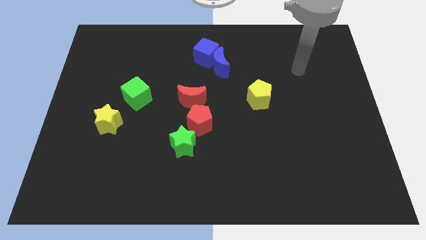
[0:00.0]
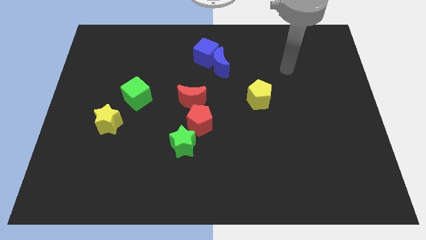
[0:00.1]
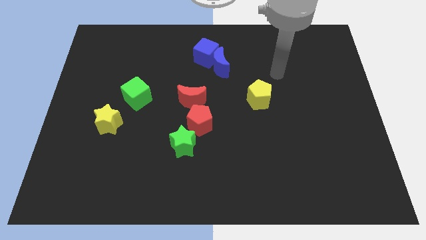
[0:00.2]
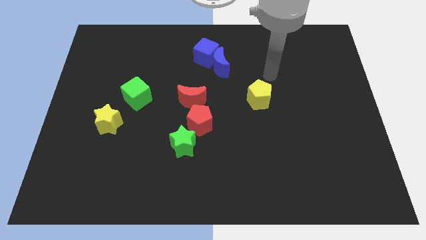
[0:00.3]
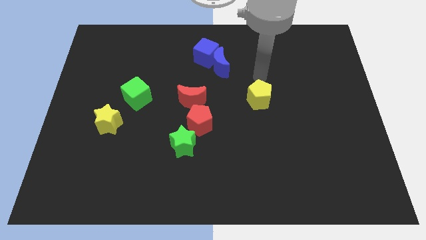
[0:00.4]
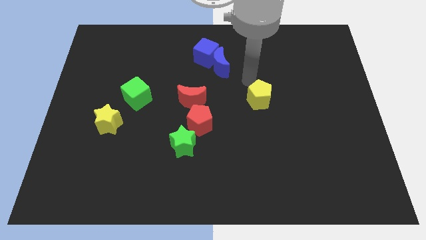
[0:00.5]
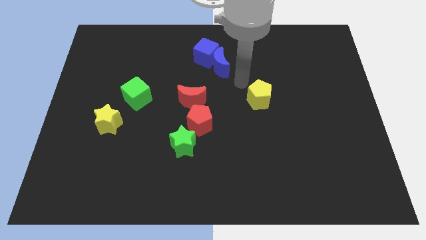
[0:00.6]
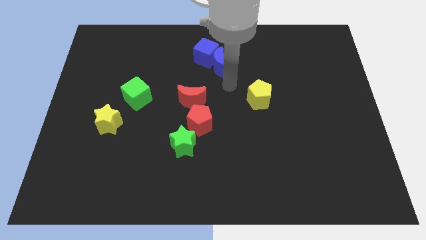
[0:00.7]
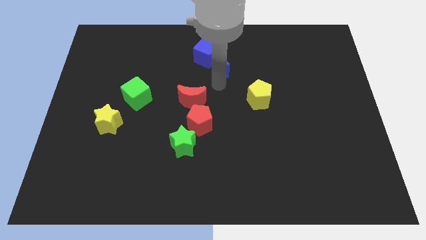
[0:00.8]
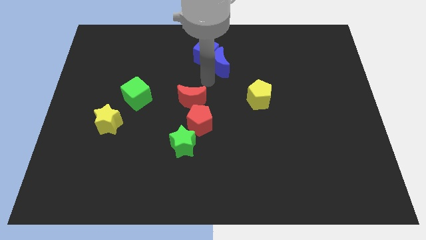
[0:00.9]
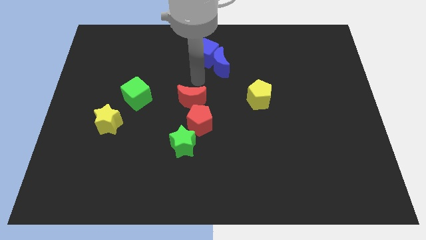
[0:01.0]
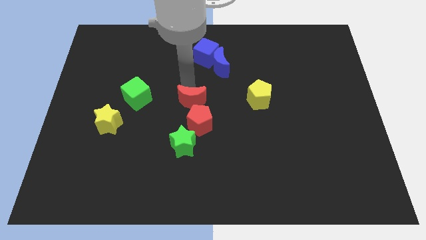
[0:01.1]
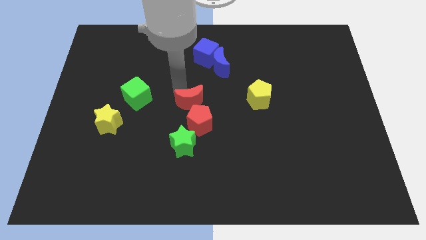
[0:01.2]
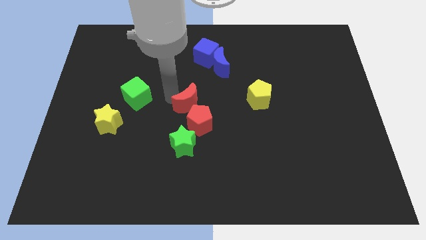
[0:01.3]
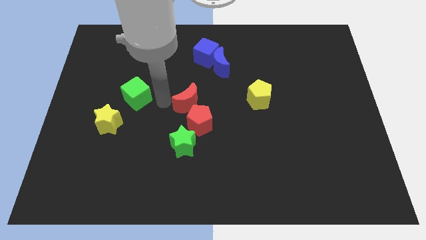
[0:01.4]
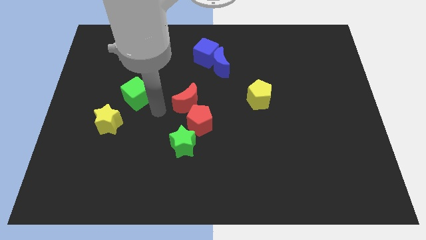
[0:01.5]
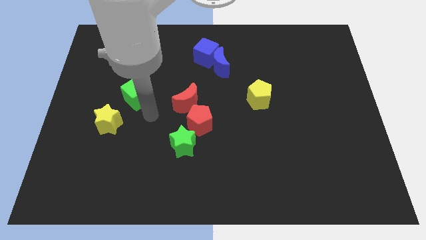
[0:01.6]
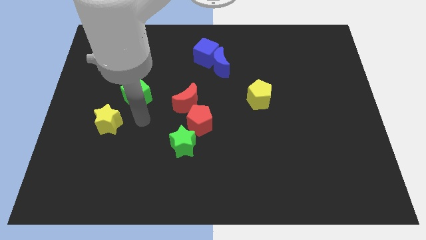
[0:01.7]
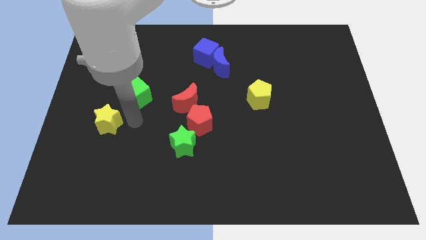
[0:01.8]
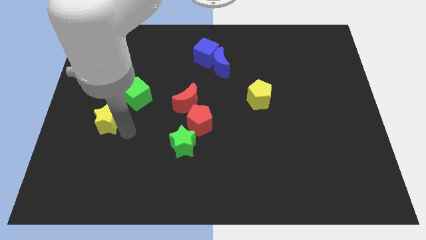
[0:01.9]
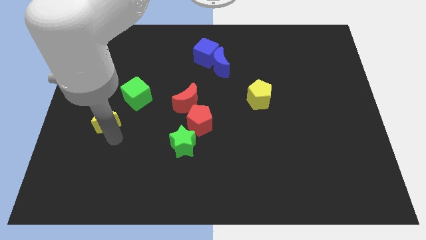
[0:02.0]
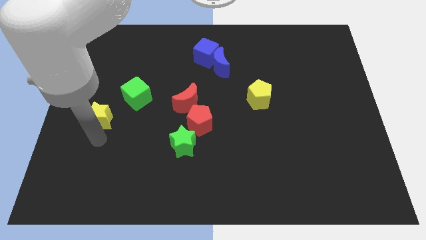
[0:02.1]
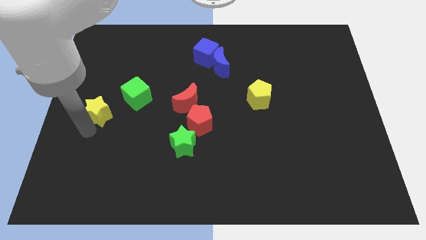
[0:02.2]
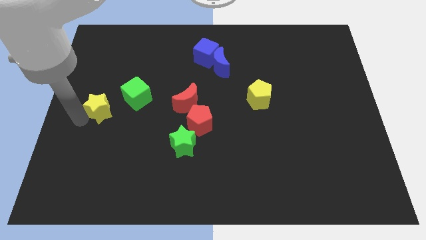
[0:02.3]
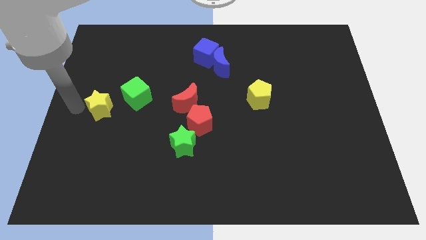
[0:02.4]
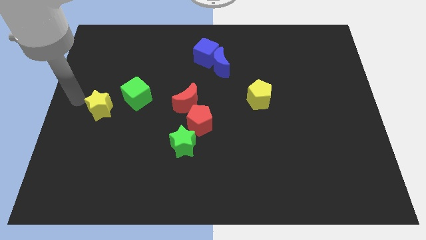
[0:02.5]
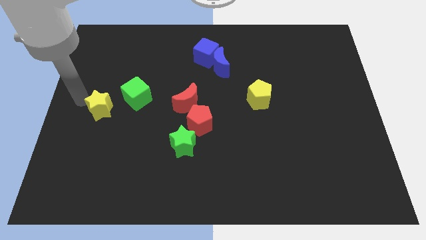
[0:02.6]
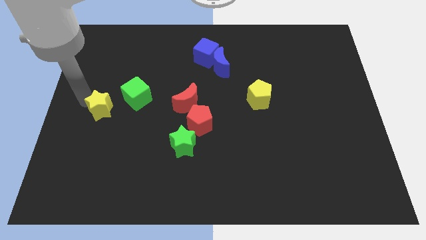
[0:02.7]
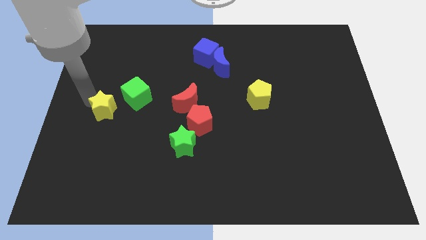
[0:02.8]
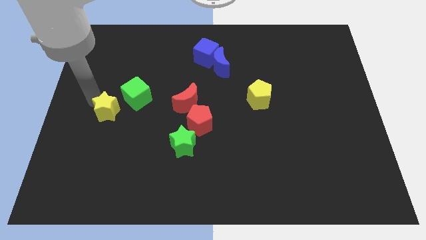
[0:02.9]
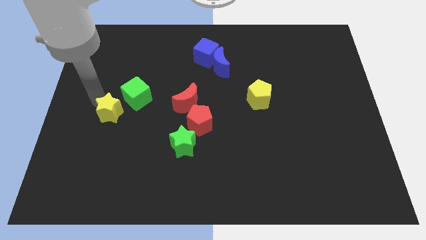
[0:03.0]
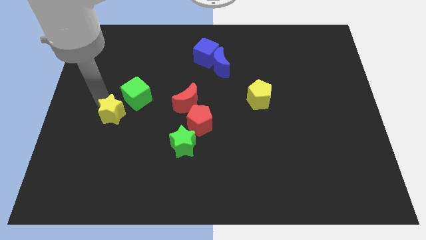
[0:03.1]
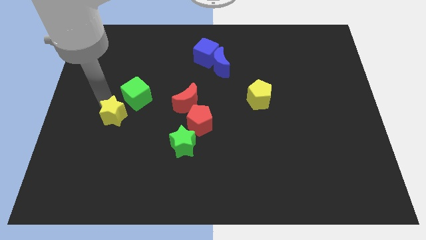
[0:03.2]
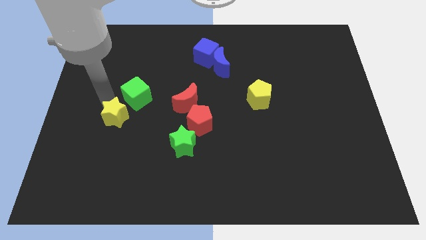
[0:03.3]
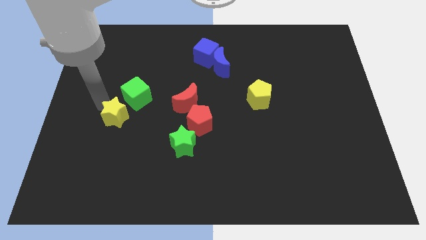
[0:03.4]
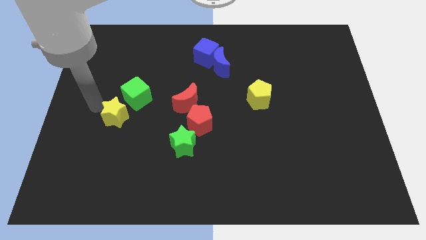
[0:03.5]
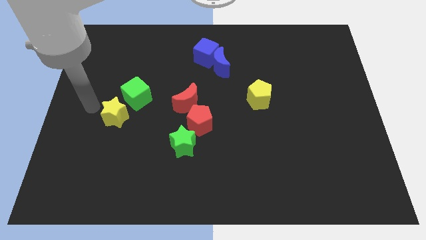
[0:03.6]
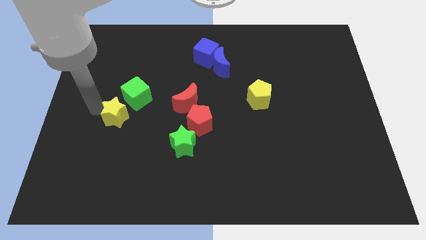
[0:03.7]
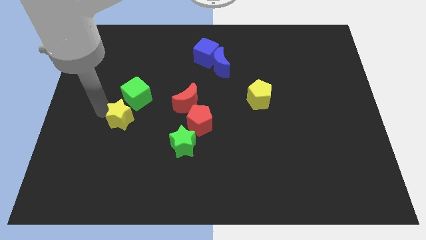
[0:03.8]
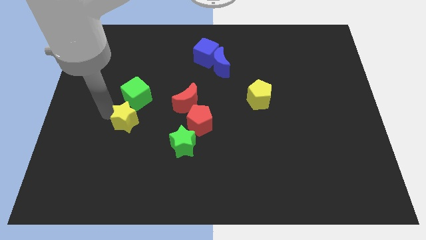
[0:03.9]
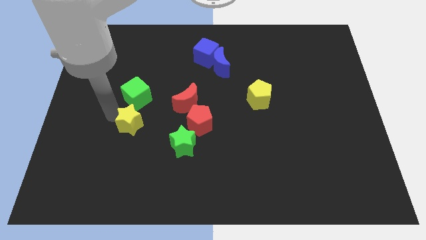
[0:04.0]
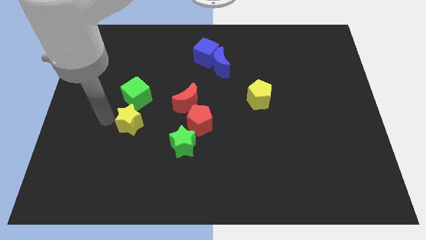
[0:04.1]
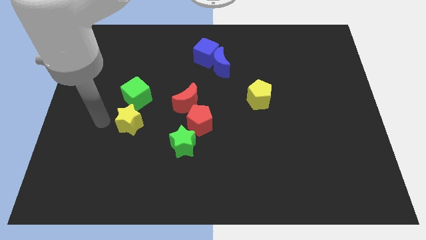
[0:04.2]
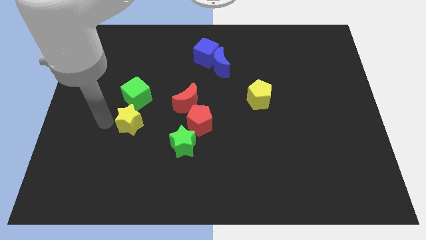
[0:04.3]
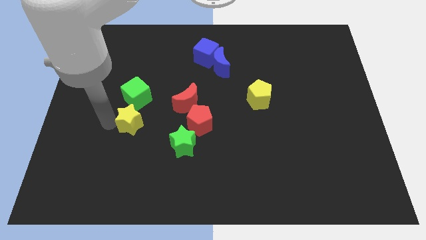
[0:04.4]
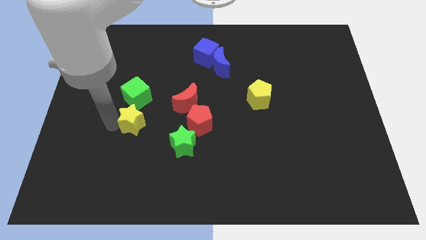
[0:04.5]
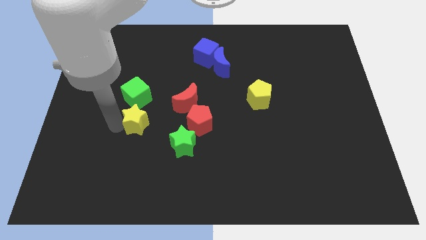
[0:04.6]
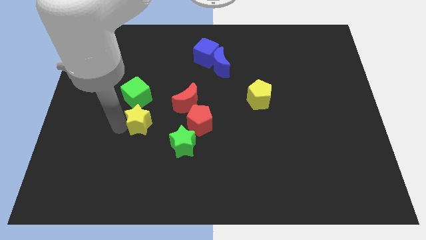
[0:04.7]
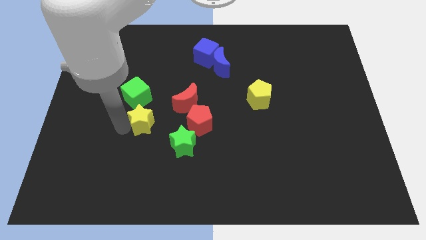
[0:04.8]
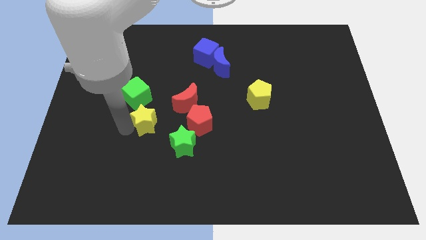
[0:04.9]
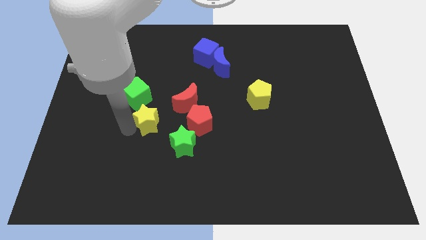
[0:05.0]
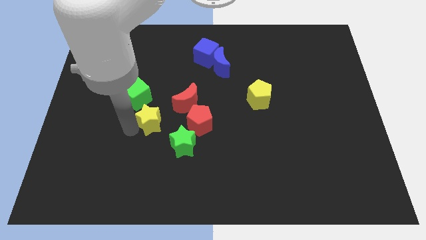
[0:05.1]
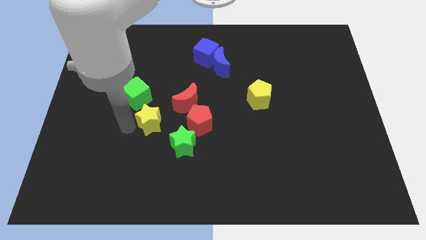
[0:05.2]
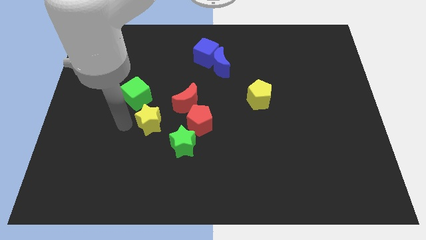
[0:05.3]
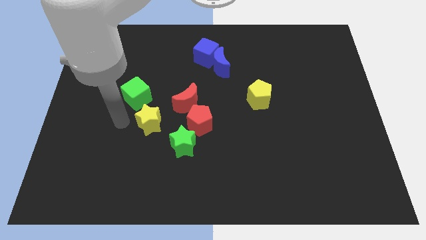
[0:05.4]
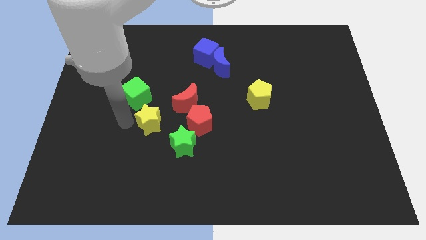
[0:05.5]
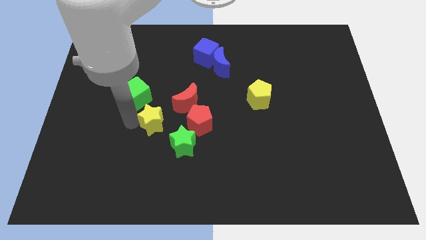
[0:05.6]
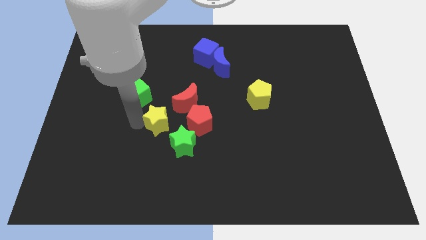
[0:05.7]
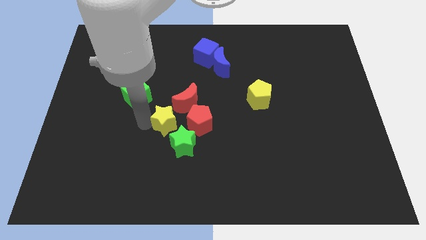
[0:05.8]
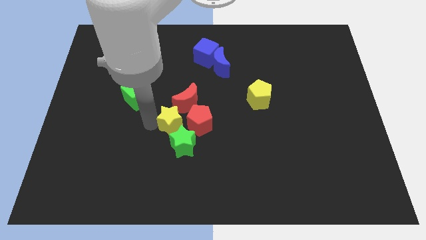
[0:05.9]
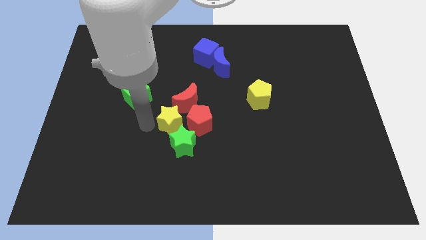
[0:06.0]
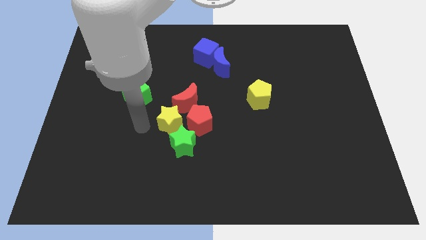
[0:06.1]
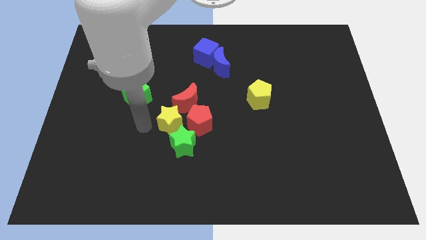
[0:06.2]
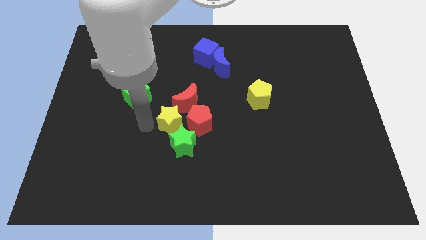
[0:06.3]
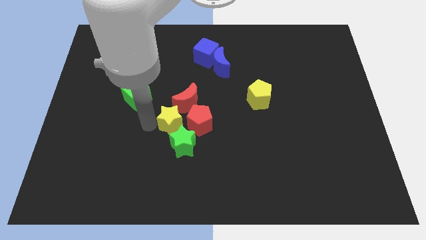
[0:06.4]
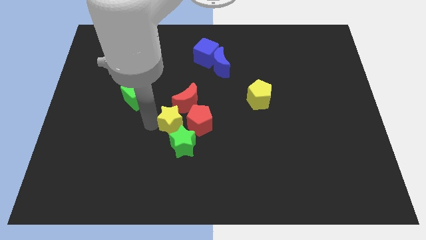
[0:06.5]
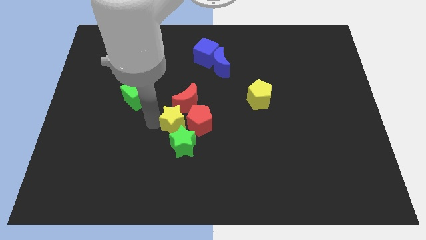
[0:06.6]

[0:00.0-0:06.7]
put the yellow star next to the red pentagon
